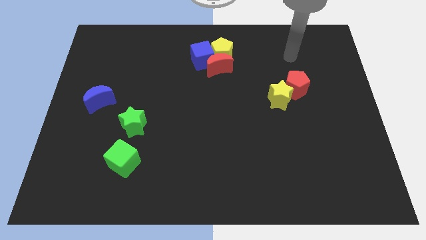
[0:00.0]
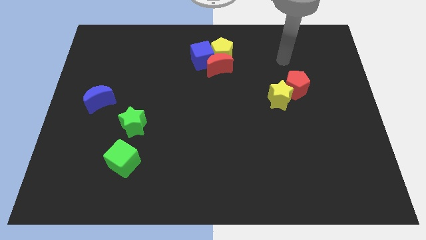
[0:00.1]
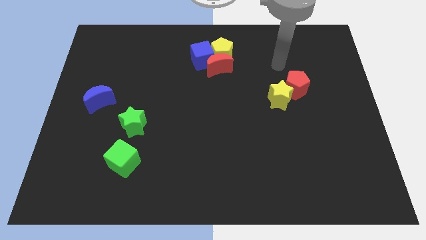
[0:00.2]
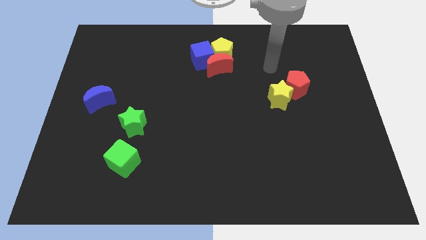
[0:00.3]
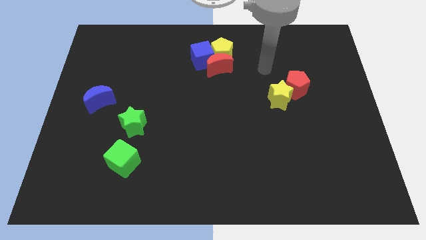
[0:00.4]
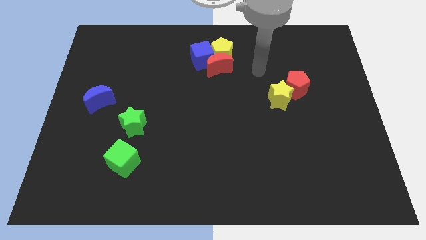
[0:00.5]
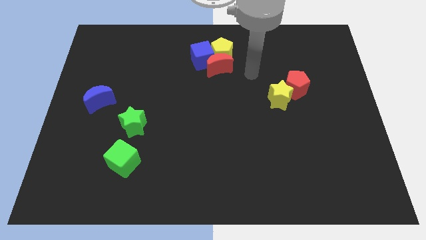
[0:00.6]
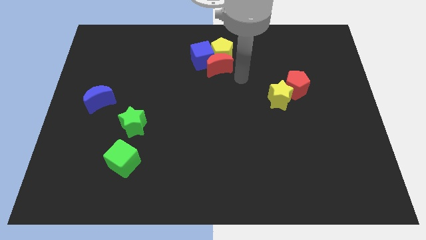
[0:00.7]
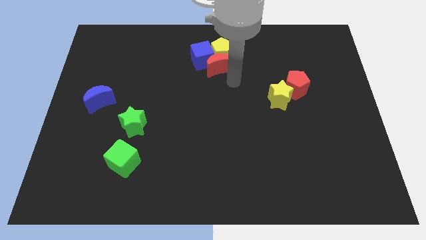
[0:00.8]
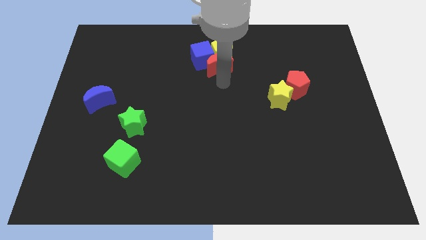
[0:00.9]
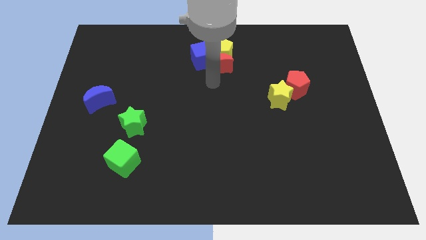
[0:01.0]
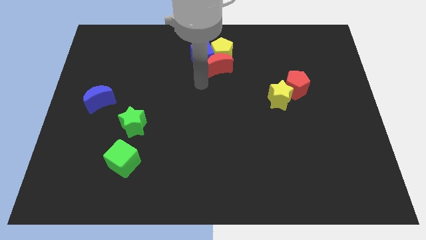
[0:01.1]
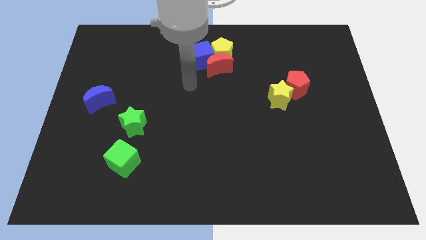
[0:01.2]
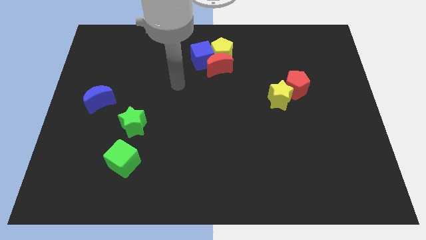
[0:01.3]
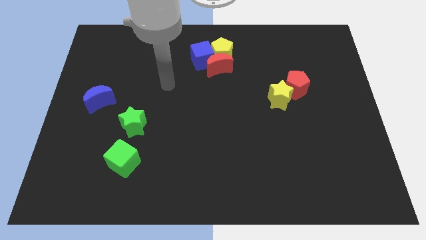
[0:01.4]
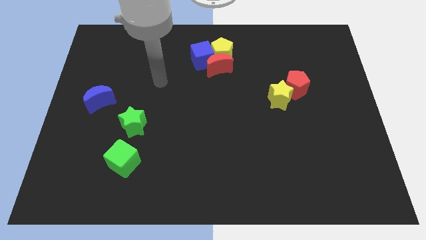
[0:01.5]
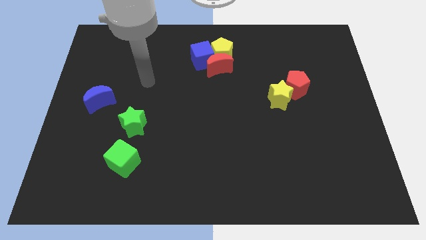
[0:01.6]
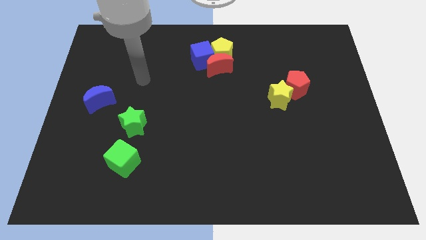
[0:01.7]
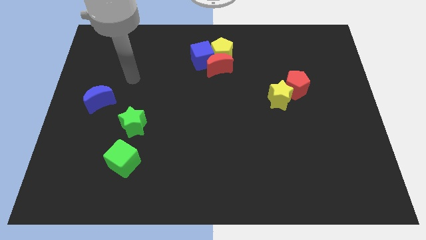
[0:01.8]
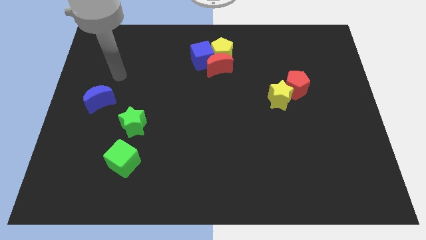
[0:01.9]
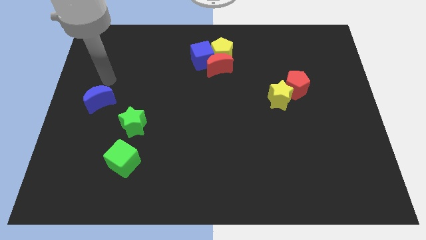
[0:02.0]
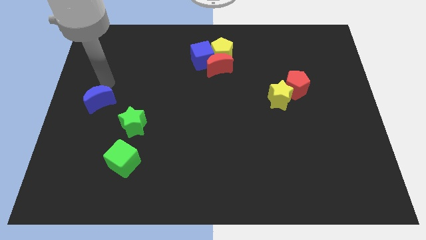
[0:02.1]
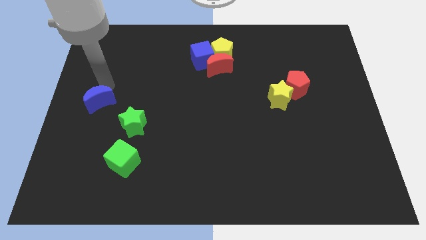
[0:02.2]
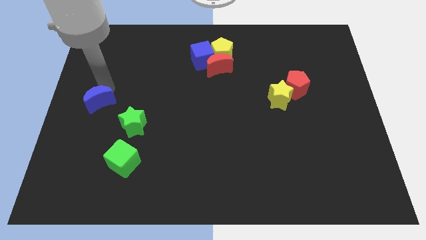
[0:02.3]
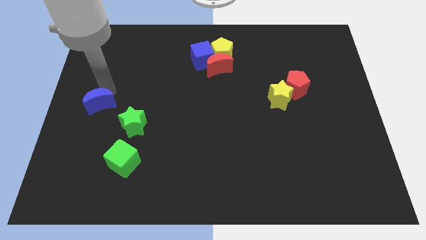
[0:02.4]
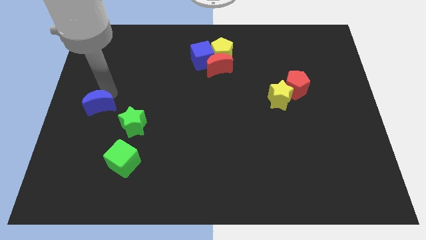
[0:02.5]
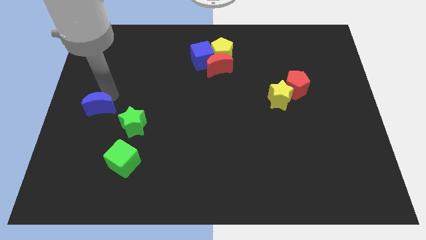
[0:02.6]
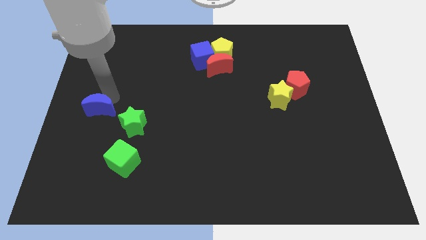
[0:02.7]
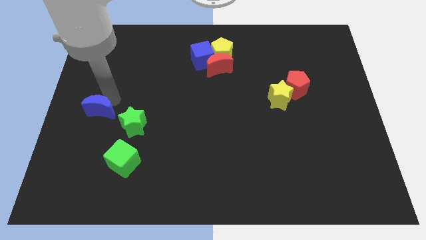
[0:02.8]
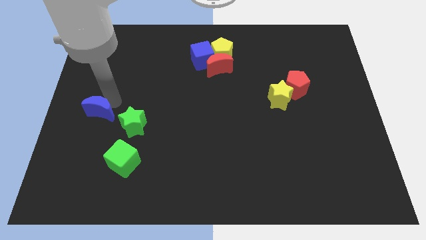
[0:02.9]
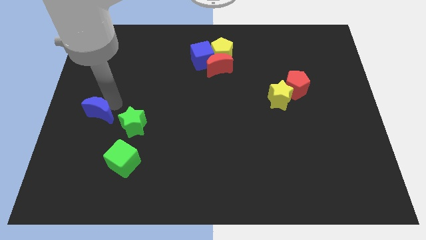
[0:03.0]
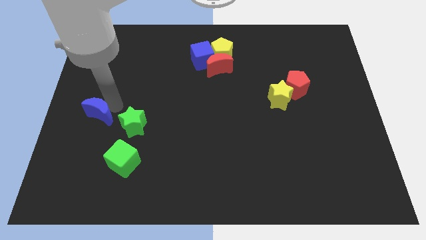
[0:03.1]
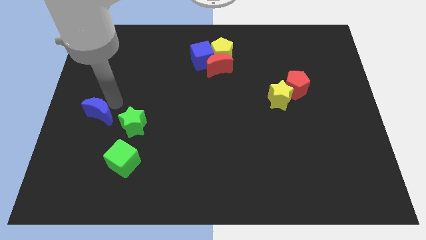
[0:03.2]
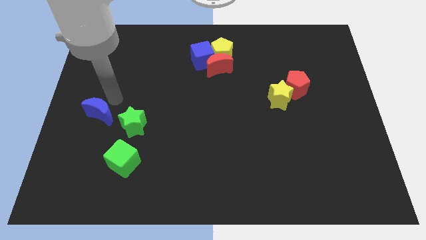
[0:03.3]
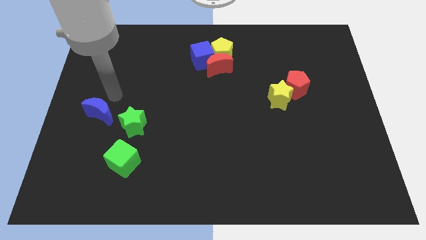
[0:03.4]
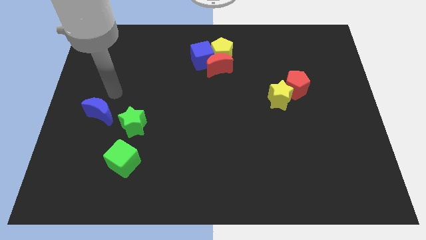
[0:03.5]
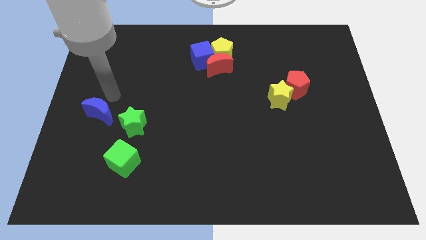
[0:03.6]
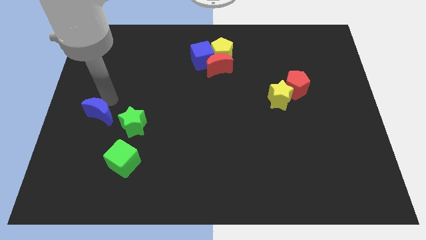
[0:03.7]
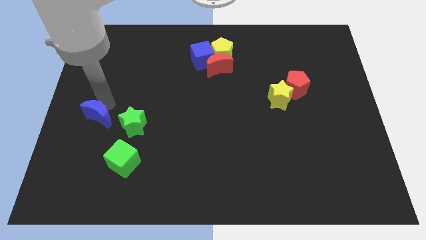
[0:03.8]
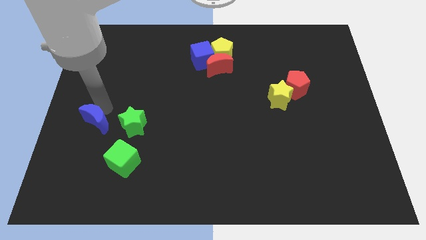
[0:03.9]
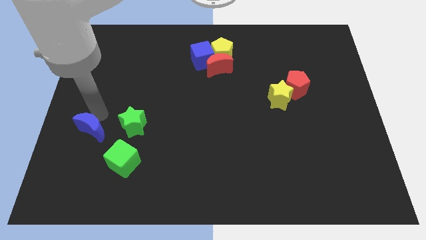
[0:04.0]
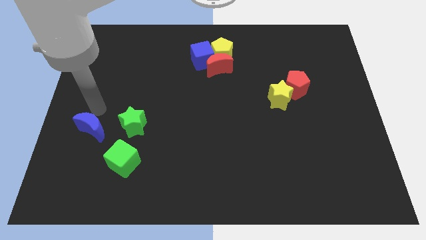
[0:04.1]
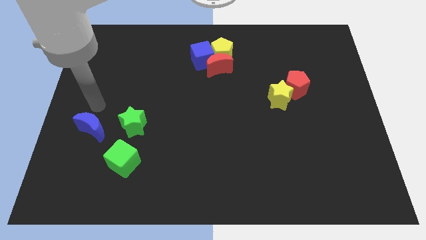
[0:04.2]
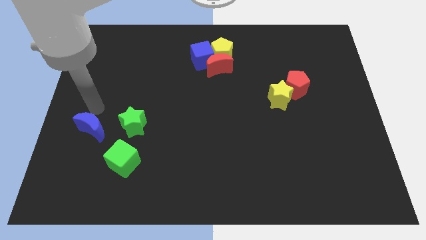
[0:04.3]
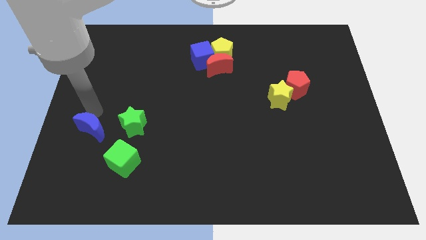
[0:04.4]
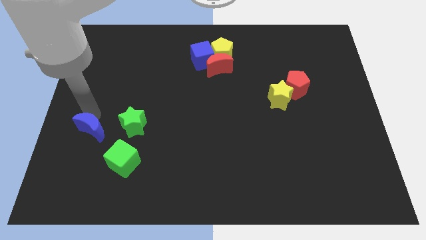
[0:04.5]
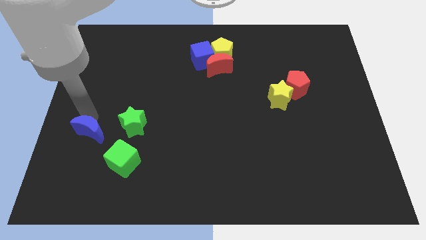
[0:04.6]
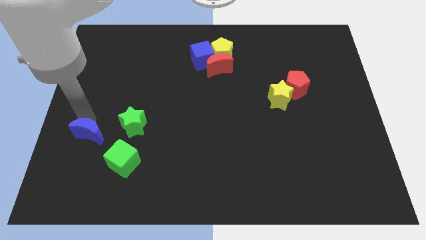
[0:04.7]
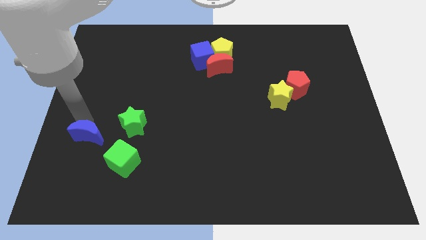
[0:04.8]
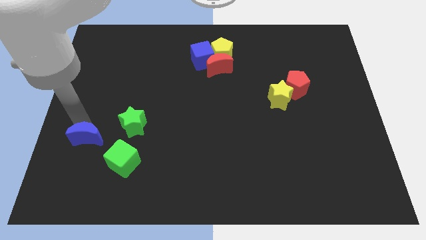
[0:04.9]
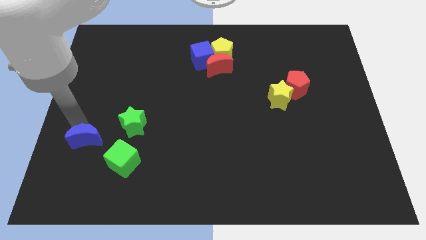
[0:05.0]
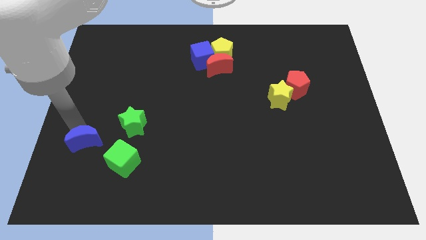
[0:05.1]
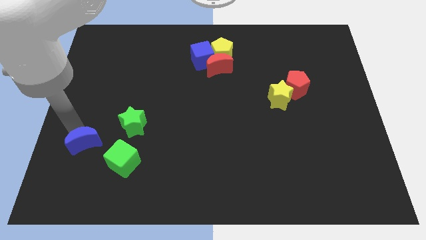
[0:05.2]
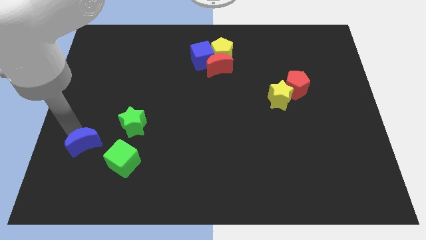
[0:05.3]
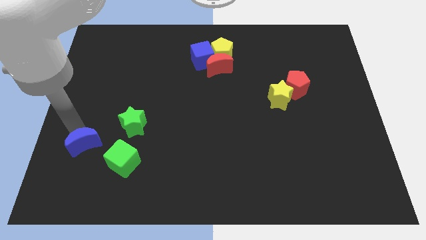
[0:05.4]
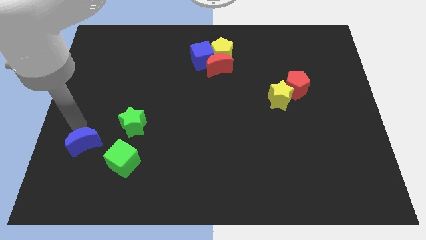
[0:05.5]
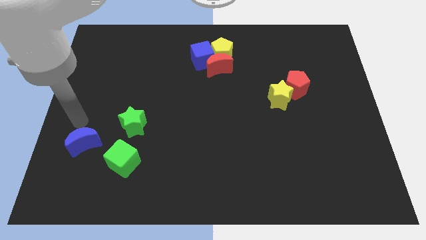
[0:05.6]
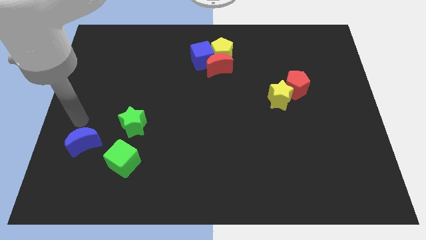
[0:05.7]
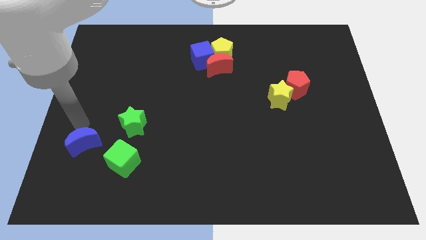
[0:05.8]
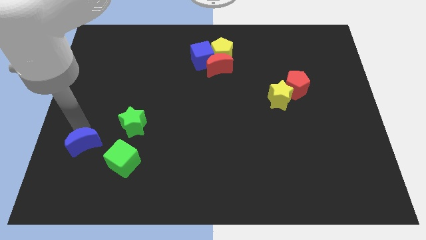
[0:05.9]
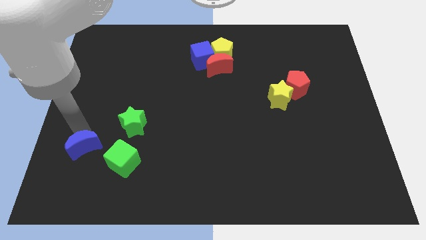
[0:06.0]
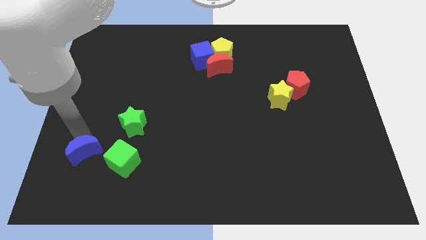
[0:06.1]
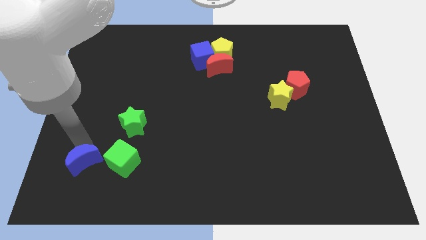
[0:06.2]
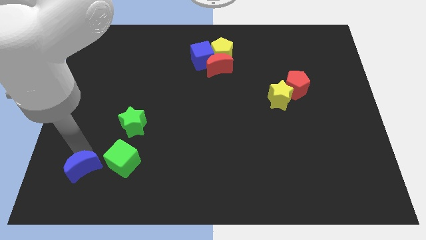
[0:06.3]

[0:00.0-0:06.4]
put the blue moon diagonally down and to the left of the green cube

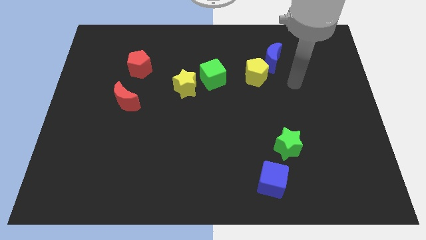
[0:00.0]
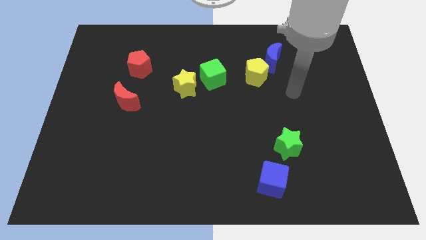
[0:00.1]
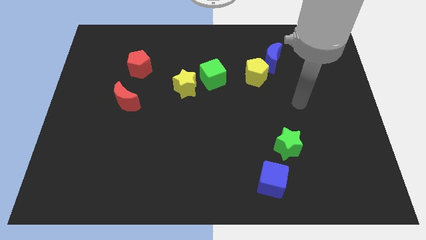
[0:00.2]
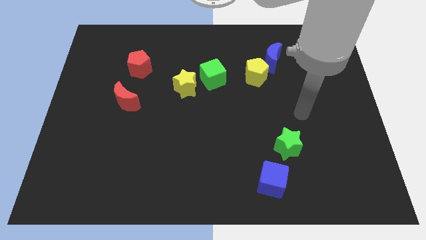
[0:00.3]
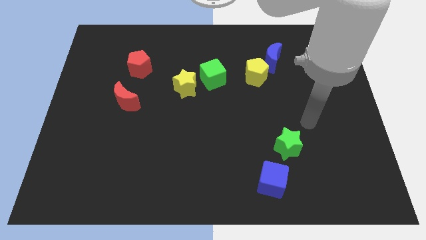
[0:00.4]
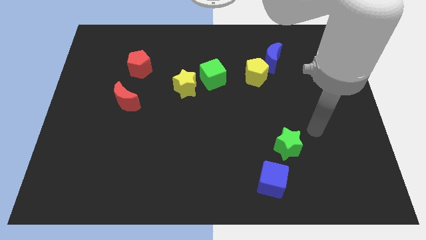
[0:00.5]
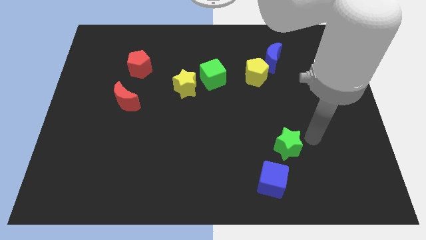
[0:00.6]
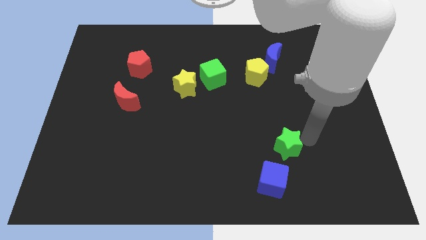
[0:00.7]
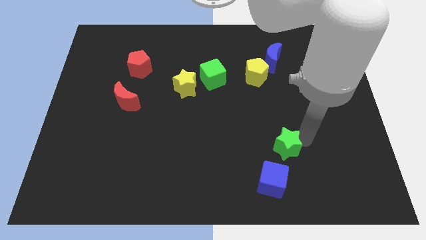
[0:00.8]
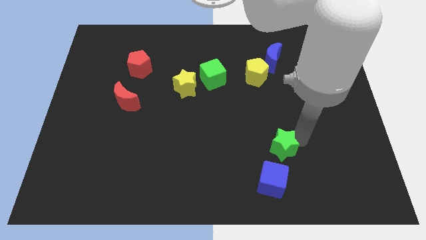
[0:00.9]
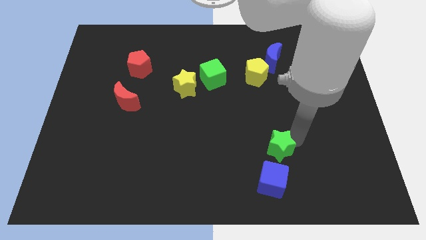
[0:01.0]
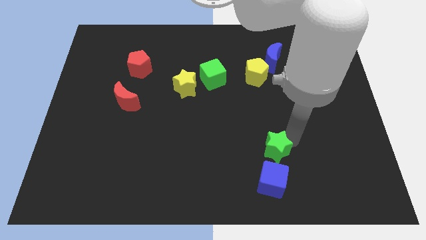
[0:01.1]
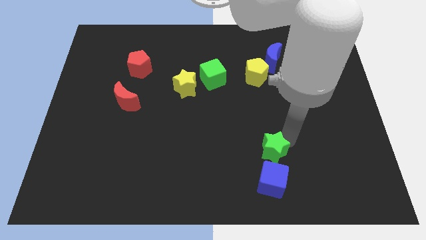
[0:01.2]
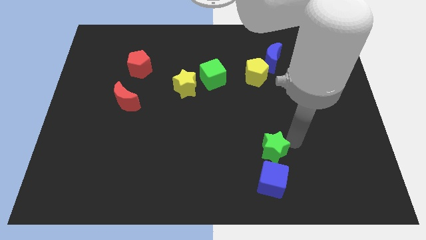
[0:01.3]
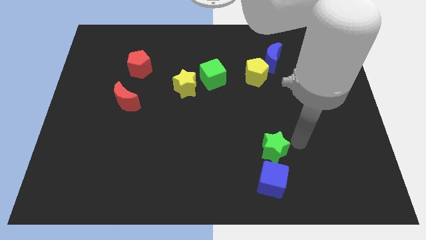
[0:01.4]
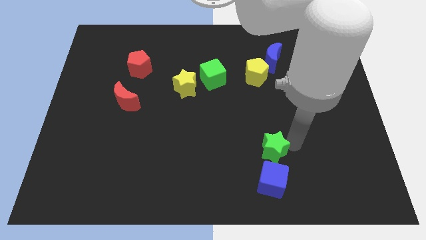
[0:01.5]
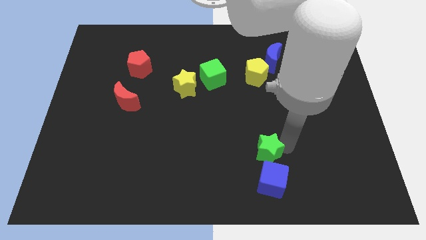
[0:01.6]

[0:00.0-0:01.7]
slide the green star to the top left of the blue cube
